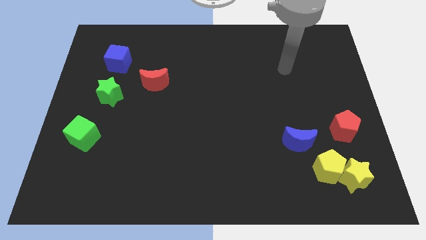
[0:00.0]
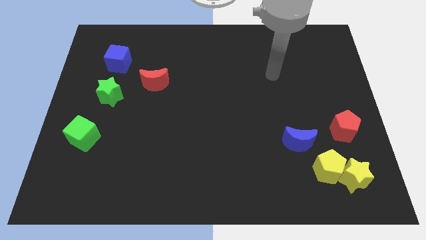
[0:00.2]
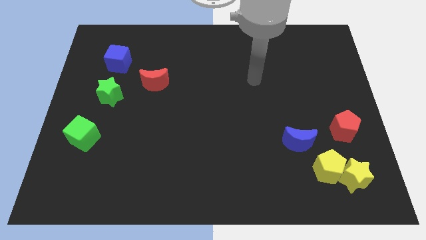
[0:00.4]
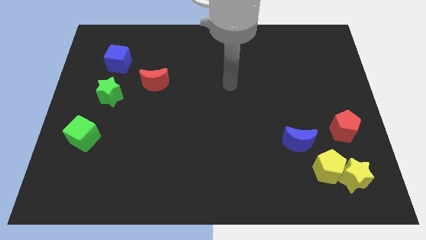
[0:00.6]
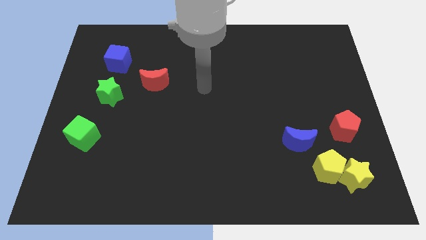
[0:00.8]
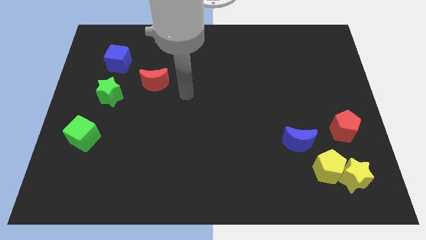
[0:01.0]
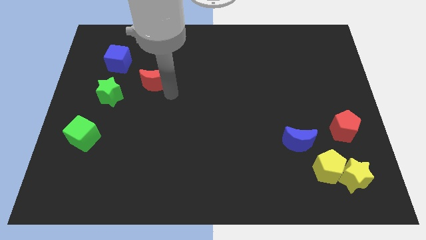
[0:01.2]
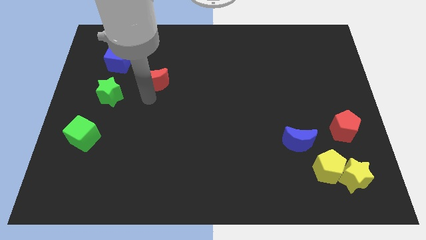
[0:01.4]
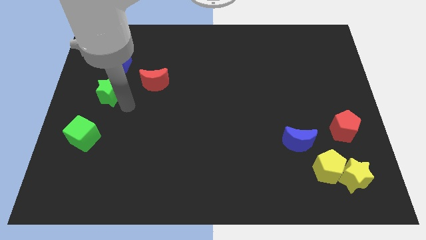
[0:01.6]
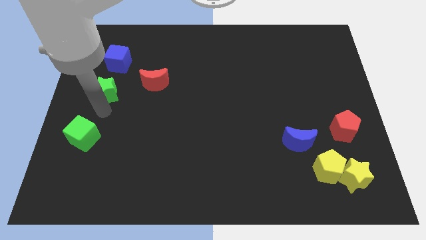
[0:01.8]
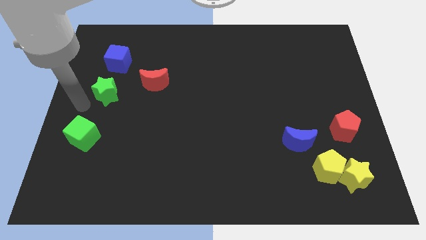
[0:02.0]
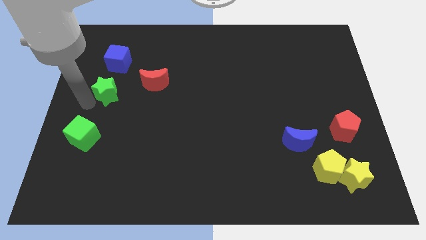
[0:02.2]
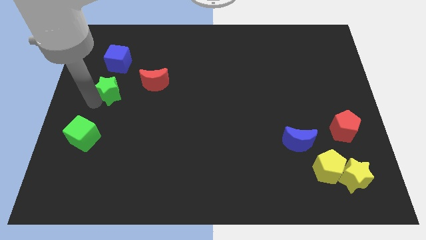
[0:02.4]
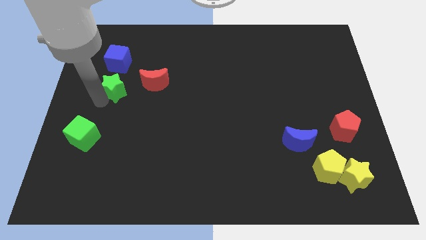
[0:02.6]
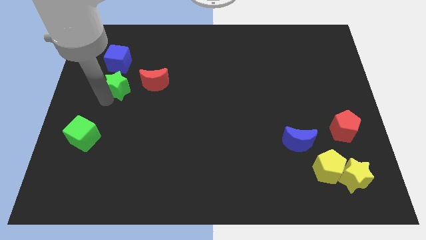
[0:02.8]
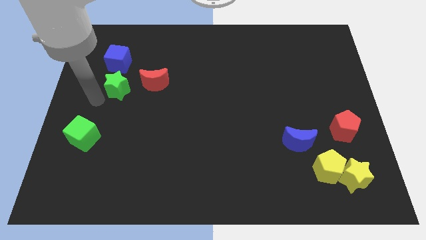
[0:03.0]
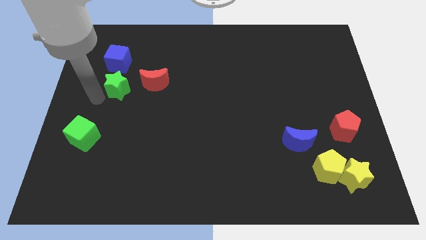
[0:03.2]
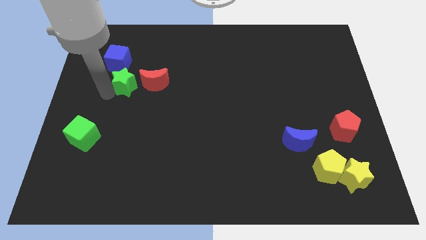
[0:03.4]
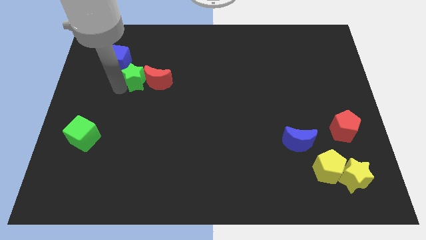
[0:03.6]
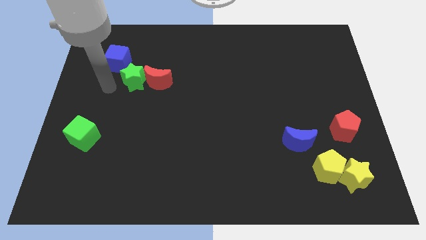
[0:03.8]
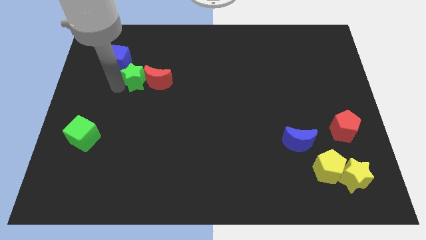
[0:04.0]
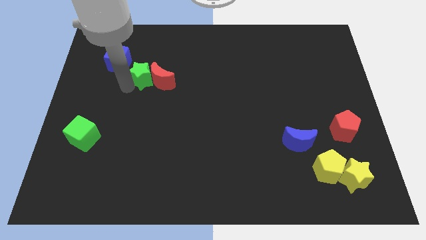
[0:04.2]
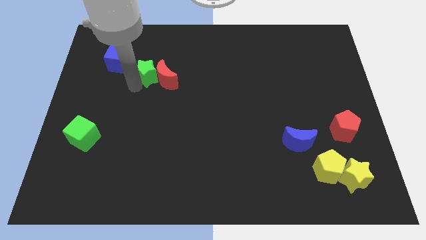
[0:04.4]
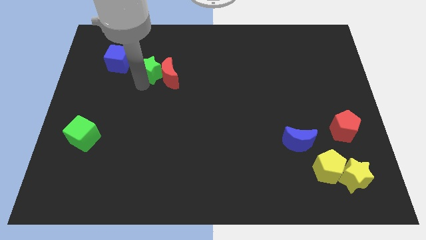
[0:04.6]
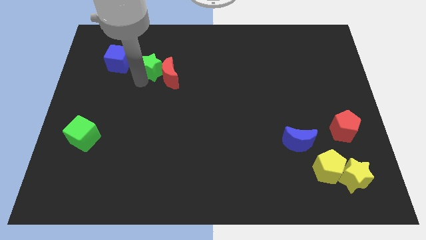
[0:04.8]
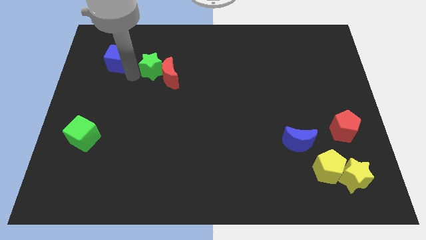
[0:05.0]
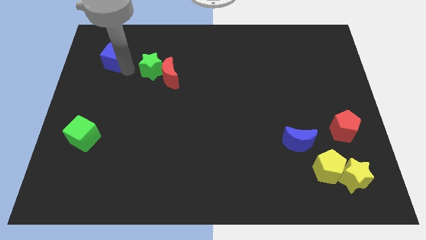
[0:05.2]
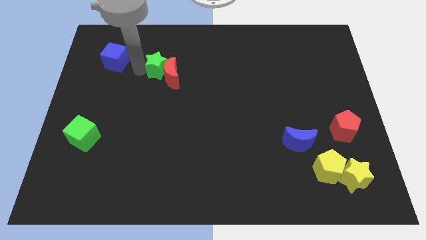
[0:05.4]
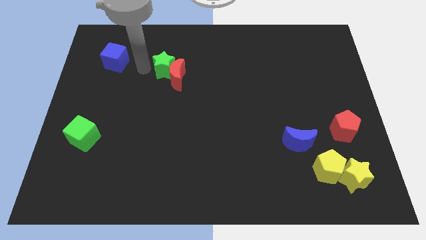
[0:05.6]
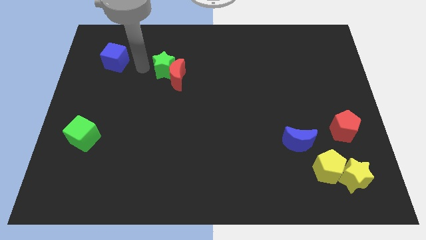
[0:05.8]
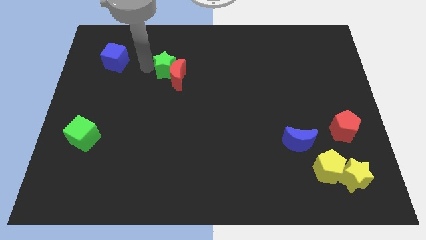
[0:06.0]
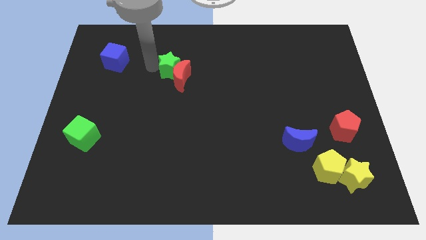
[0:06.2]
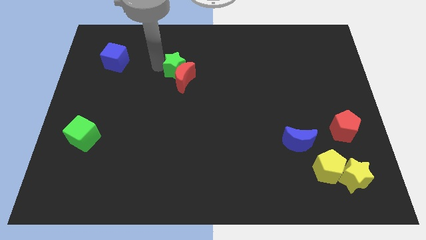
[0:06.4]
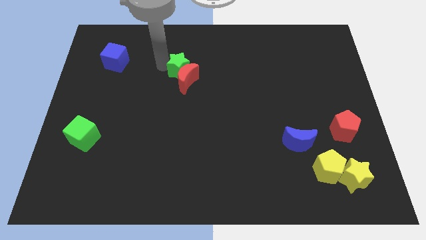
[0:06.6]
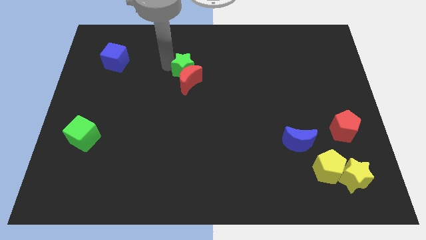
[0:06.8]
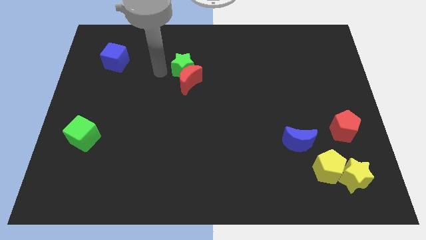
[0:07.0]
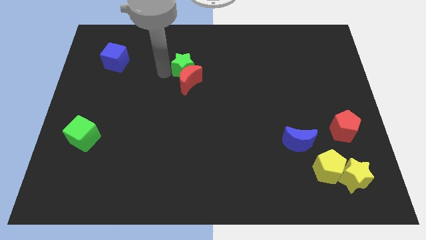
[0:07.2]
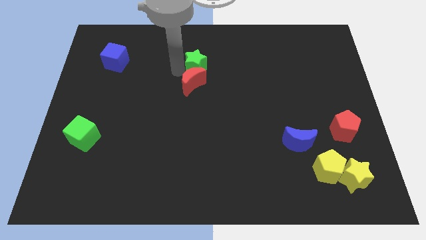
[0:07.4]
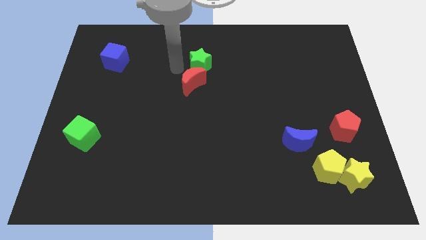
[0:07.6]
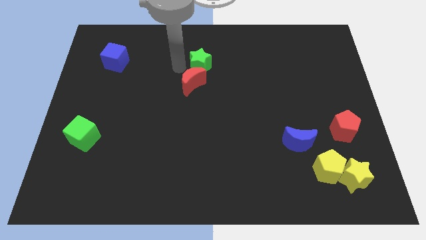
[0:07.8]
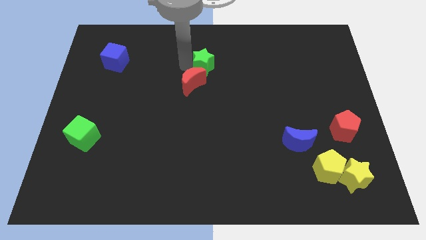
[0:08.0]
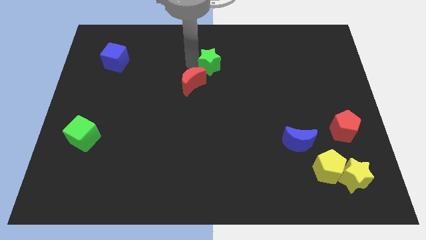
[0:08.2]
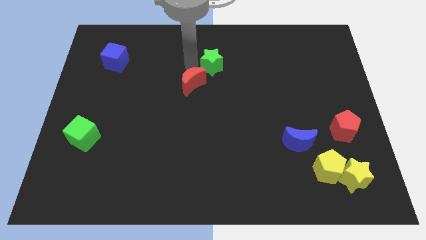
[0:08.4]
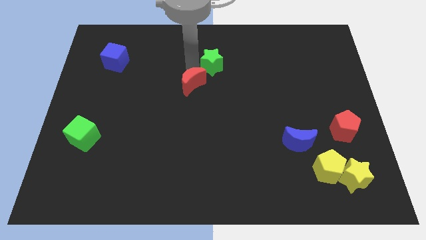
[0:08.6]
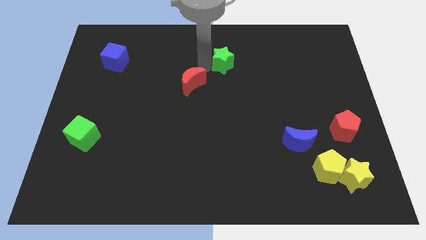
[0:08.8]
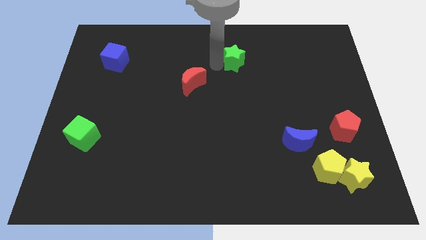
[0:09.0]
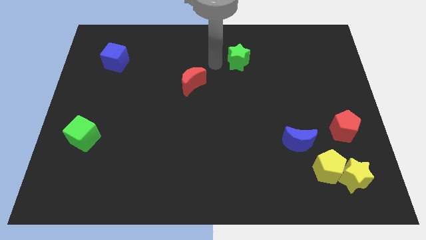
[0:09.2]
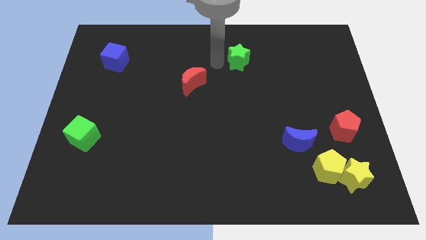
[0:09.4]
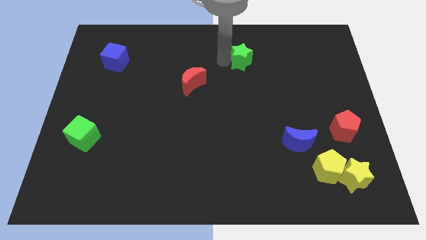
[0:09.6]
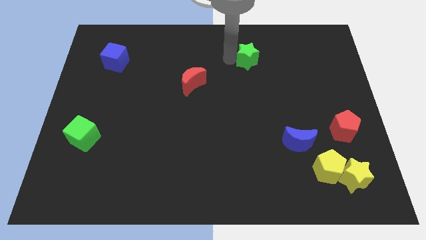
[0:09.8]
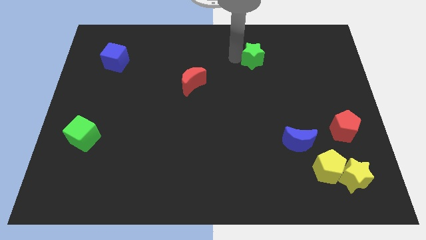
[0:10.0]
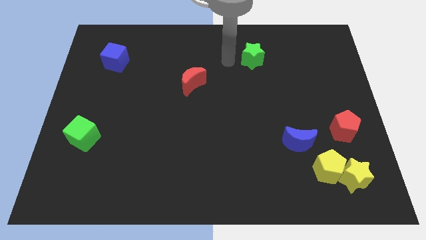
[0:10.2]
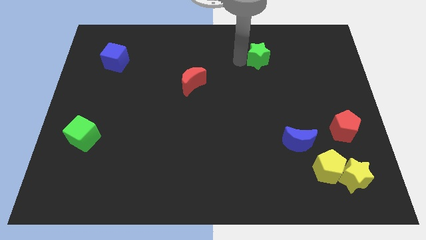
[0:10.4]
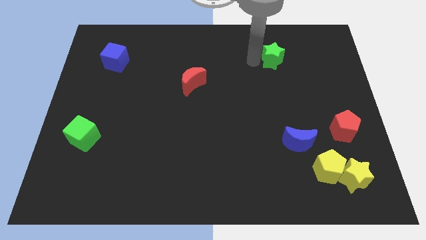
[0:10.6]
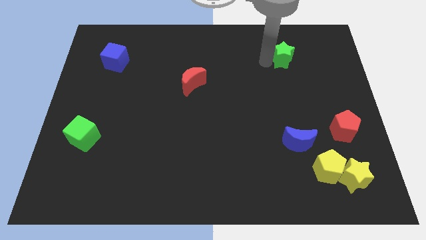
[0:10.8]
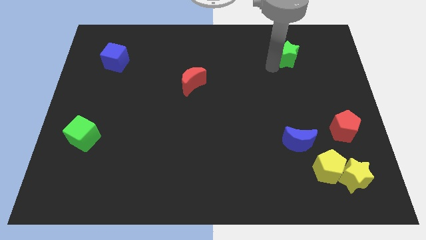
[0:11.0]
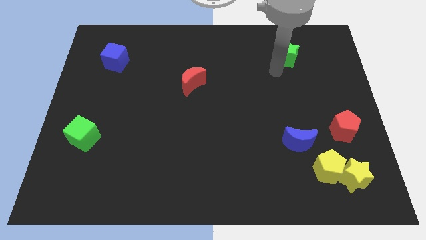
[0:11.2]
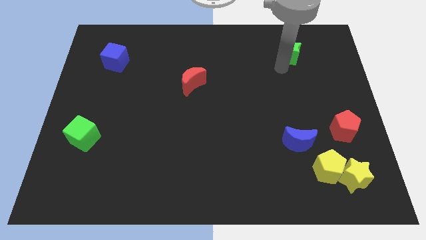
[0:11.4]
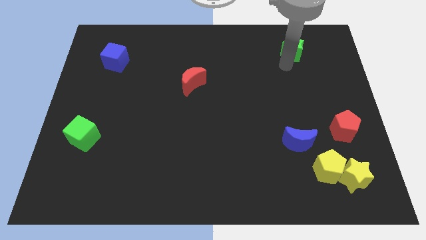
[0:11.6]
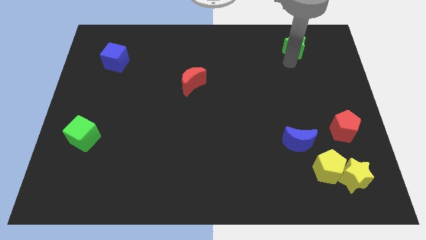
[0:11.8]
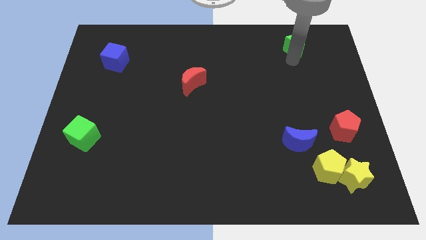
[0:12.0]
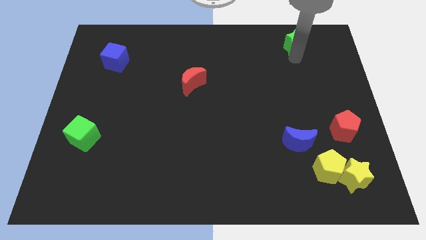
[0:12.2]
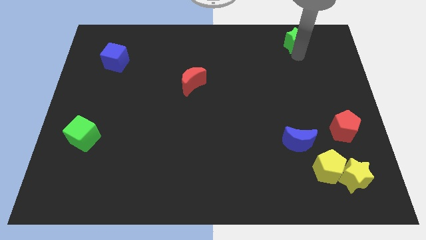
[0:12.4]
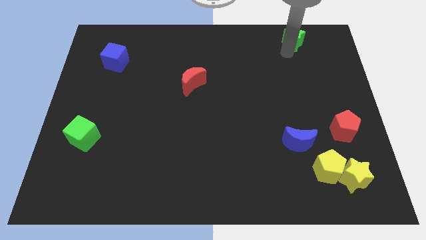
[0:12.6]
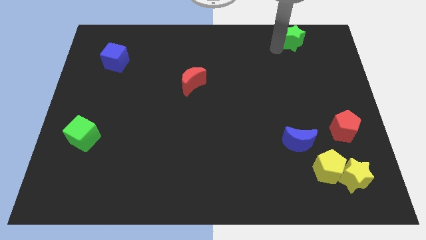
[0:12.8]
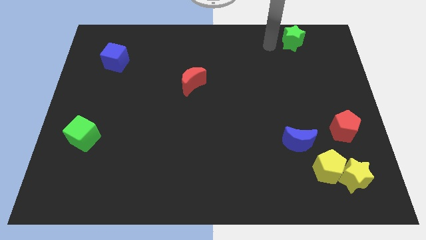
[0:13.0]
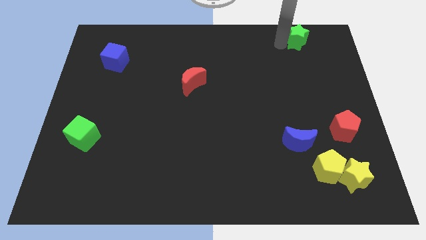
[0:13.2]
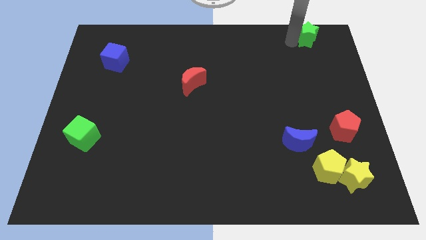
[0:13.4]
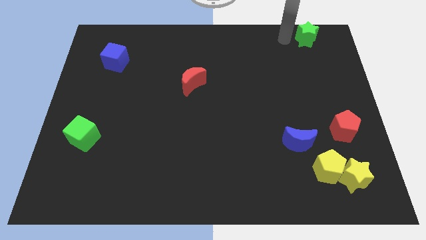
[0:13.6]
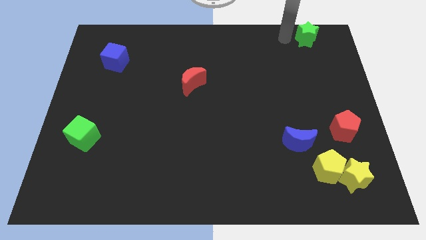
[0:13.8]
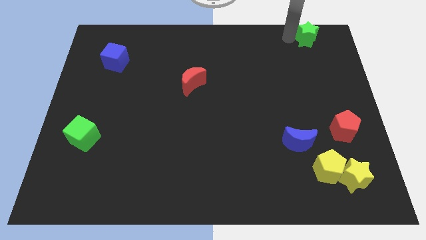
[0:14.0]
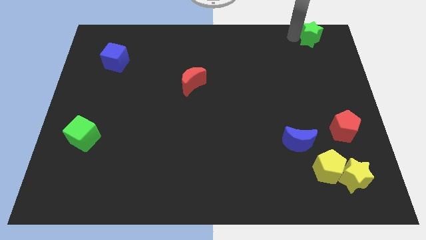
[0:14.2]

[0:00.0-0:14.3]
put the green star to the top right
